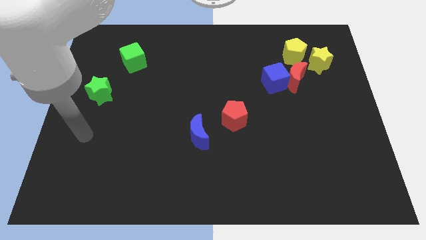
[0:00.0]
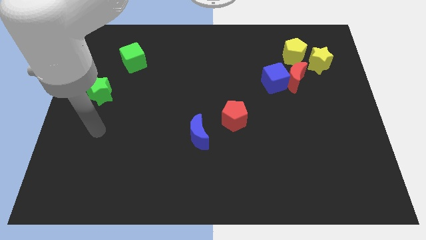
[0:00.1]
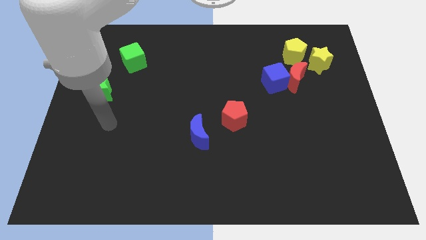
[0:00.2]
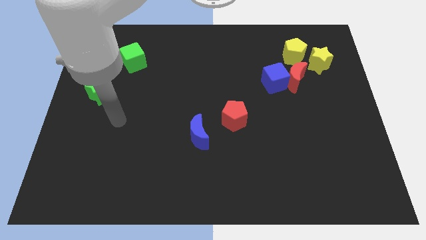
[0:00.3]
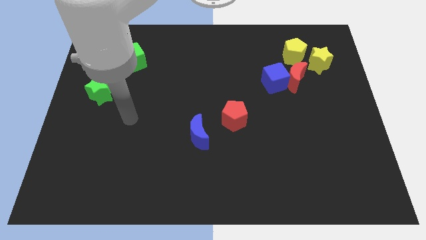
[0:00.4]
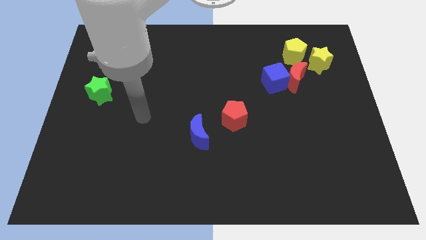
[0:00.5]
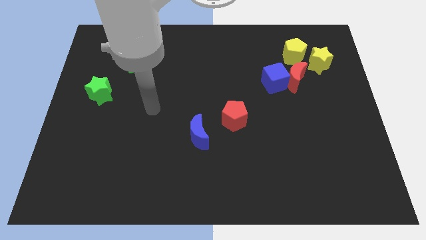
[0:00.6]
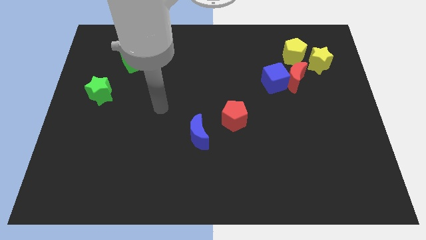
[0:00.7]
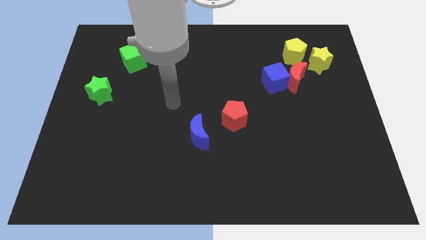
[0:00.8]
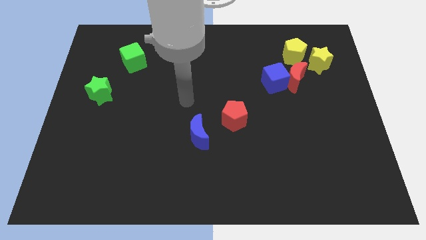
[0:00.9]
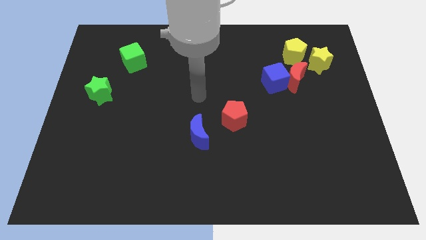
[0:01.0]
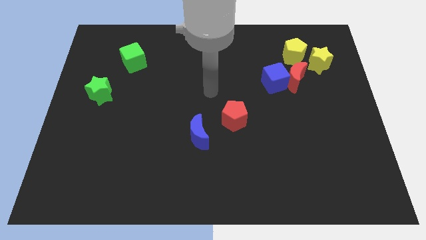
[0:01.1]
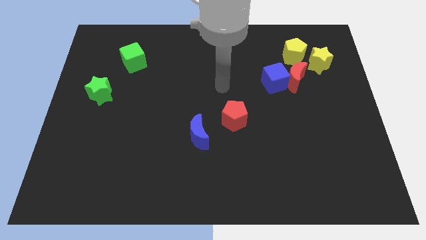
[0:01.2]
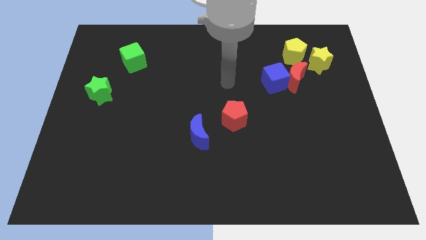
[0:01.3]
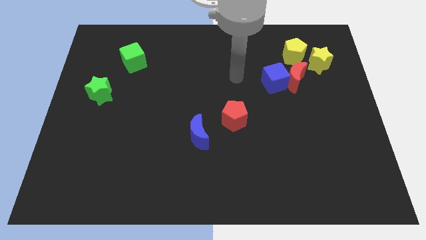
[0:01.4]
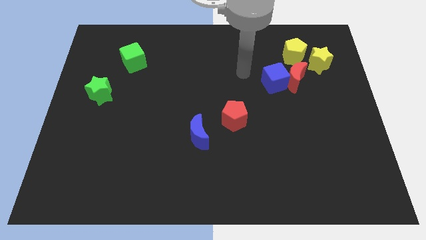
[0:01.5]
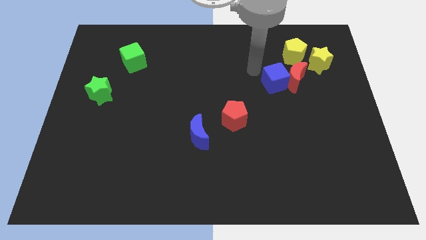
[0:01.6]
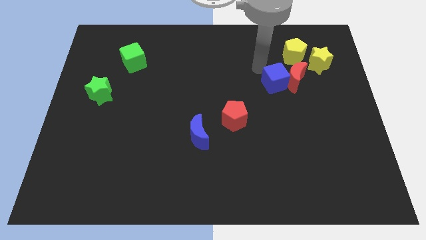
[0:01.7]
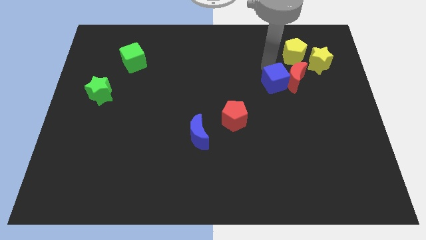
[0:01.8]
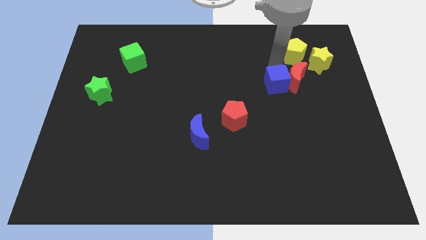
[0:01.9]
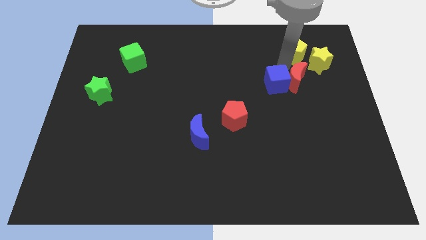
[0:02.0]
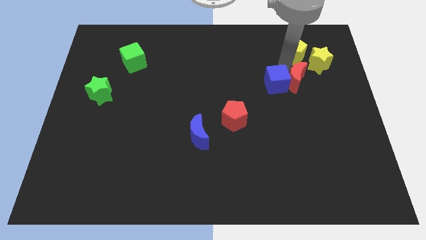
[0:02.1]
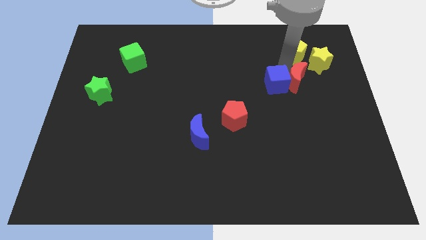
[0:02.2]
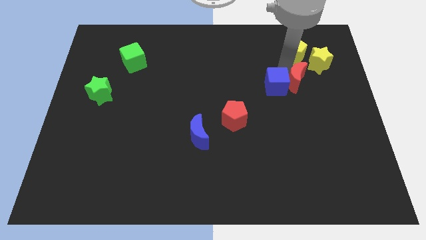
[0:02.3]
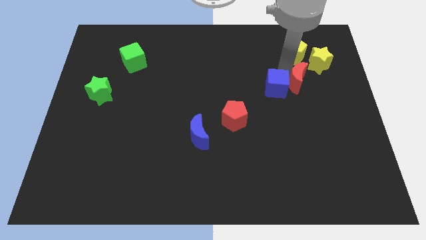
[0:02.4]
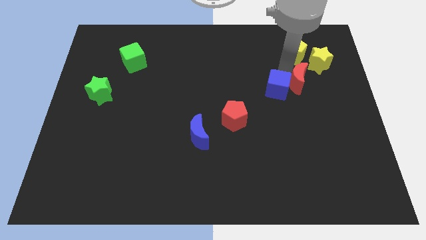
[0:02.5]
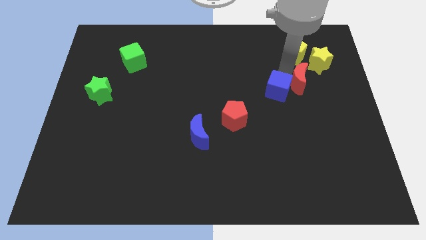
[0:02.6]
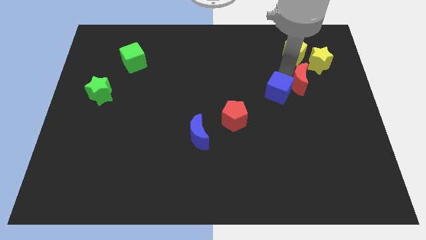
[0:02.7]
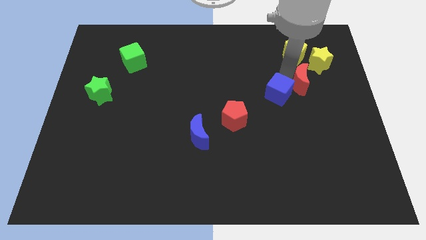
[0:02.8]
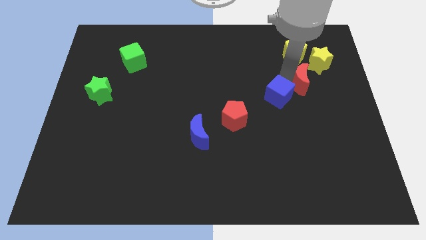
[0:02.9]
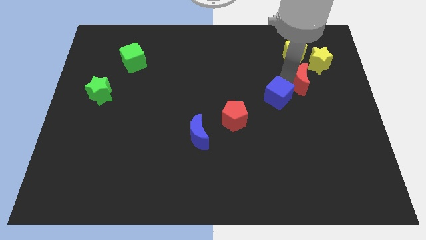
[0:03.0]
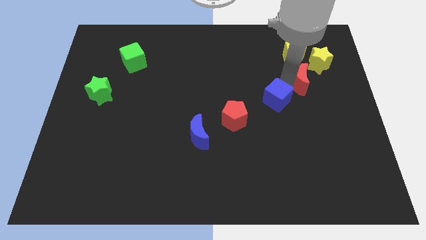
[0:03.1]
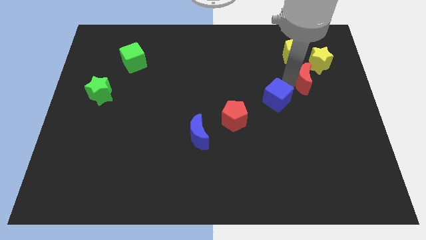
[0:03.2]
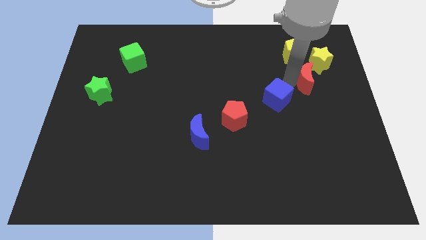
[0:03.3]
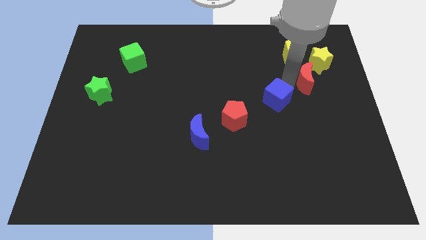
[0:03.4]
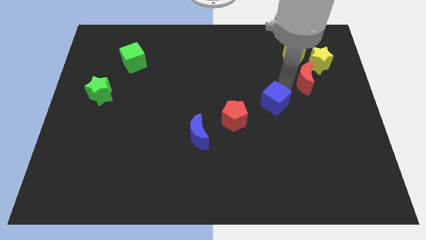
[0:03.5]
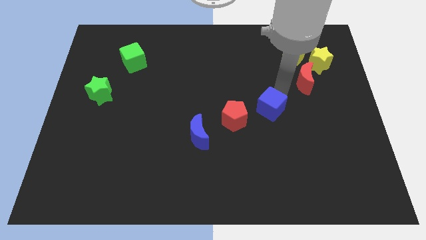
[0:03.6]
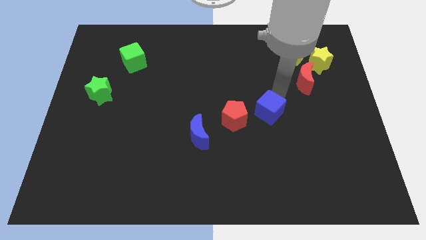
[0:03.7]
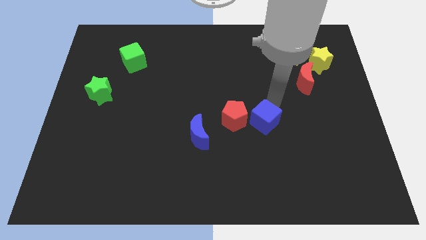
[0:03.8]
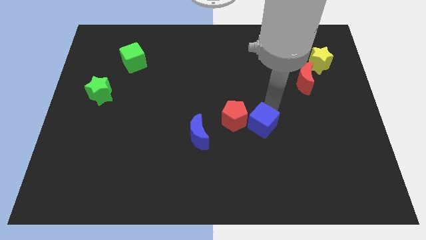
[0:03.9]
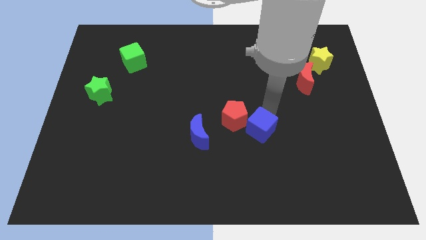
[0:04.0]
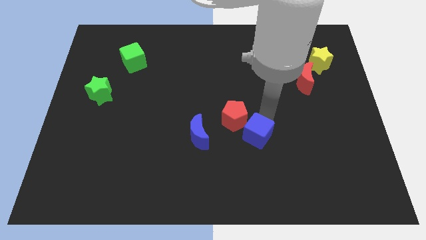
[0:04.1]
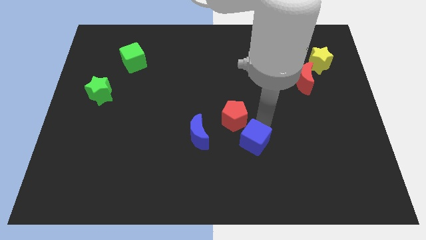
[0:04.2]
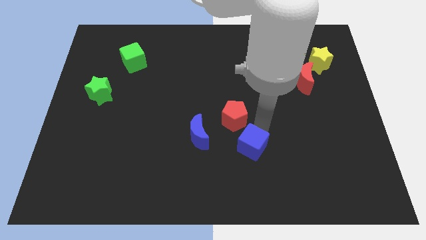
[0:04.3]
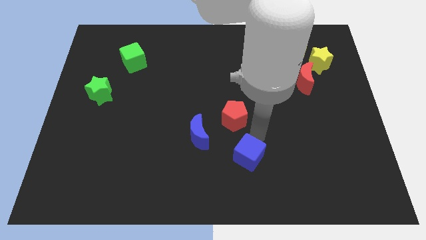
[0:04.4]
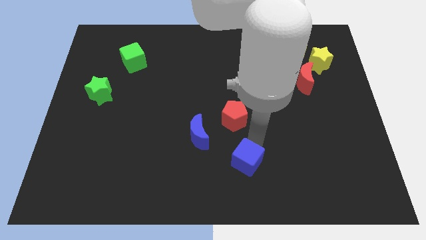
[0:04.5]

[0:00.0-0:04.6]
put the blue cube to the bottom

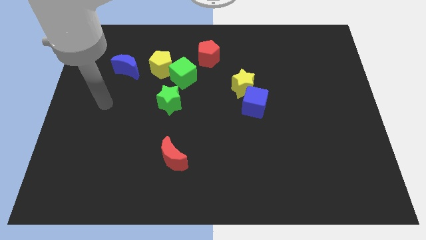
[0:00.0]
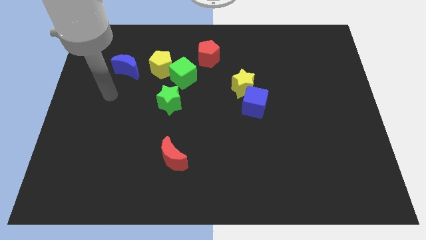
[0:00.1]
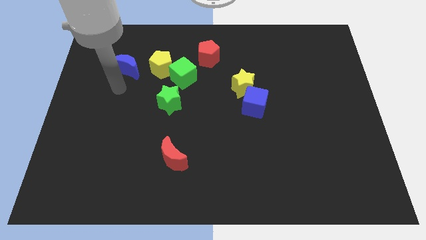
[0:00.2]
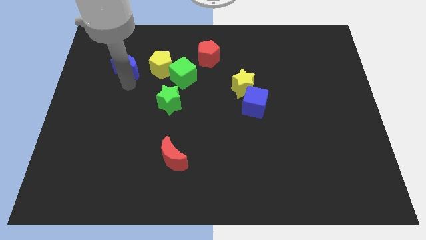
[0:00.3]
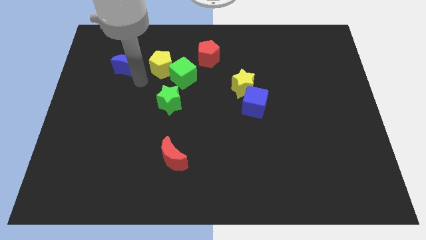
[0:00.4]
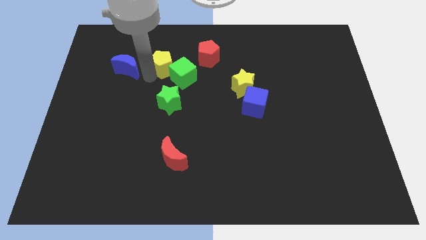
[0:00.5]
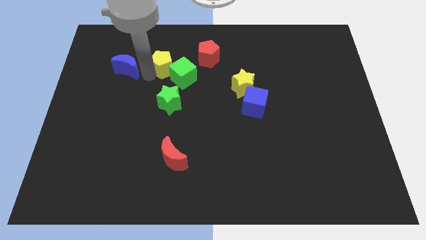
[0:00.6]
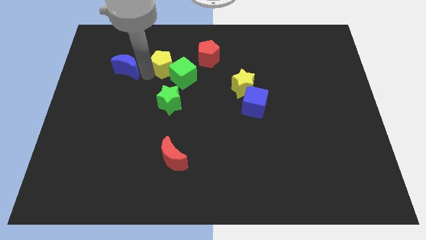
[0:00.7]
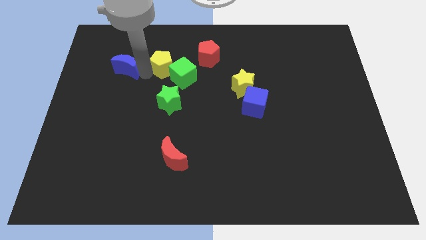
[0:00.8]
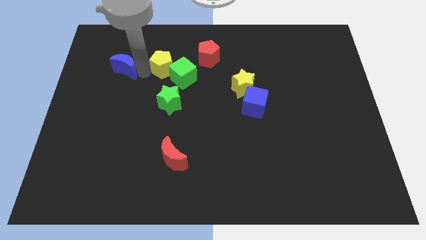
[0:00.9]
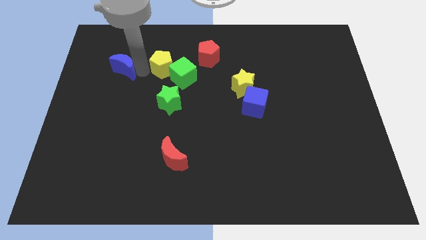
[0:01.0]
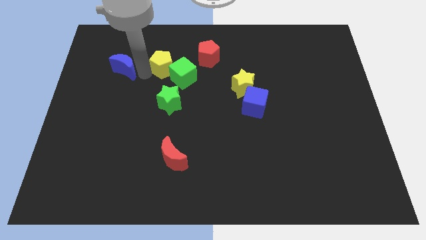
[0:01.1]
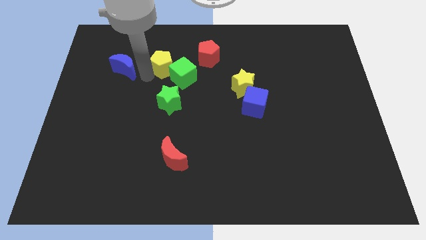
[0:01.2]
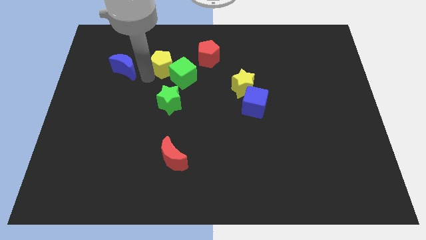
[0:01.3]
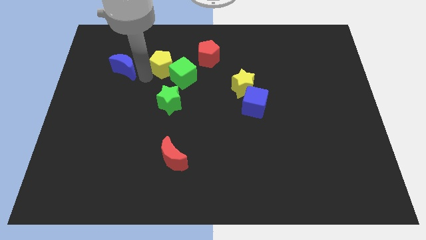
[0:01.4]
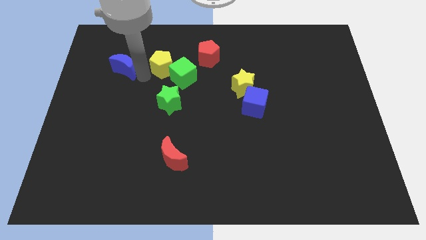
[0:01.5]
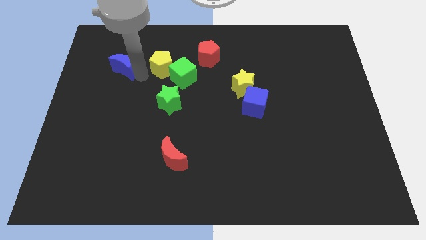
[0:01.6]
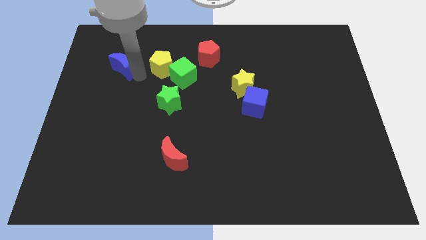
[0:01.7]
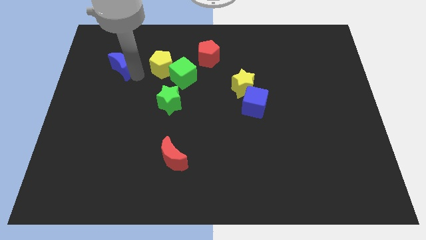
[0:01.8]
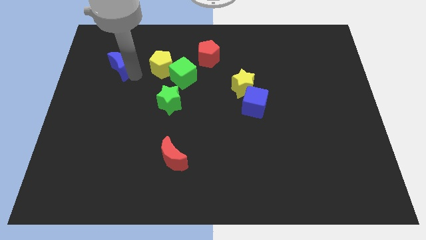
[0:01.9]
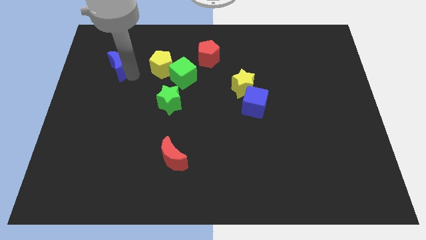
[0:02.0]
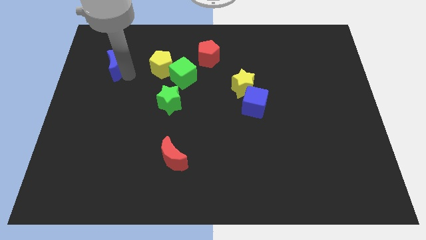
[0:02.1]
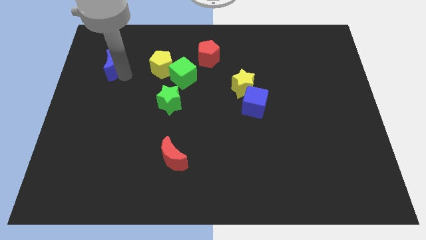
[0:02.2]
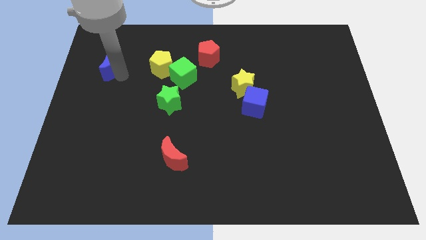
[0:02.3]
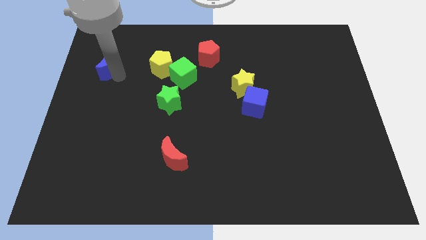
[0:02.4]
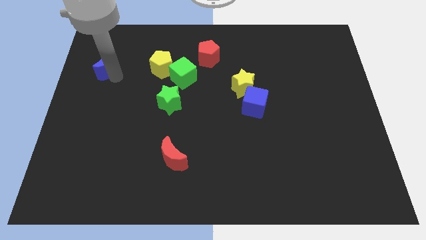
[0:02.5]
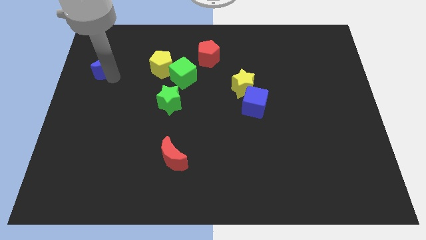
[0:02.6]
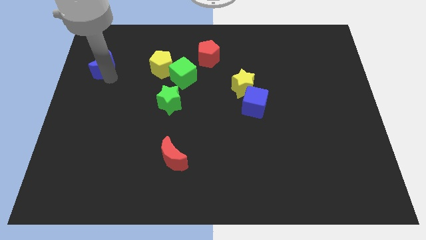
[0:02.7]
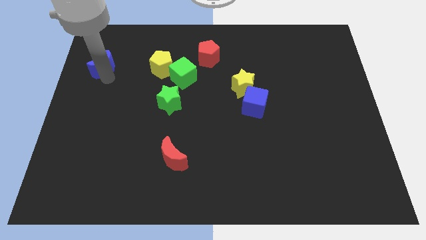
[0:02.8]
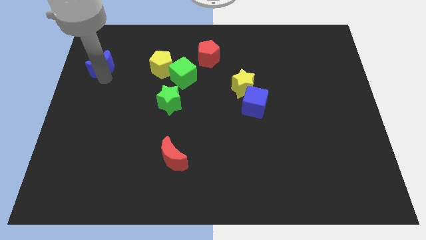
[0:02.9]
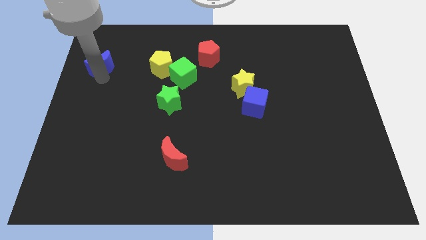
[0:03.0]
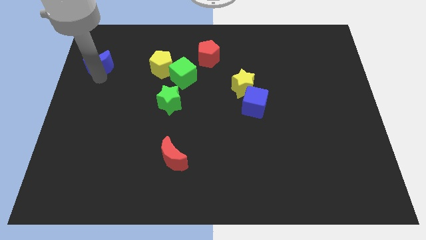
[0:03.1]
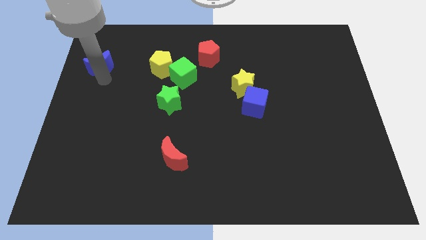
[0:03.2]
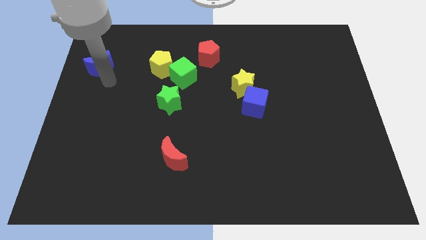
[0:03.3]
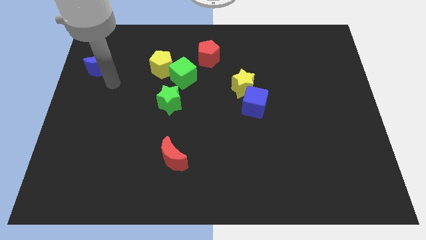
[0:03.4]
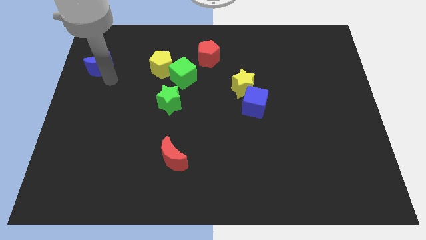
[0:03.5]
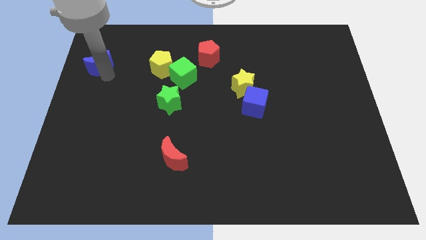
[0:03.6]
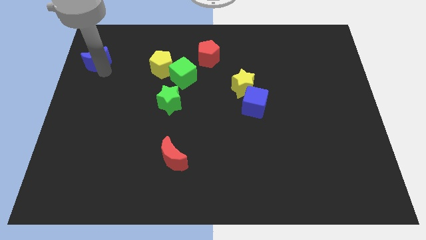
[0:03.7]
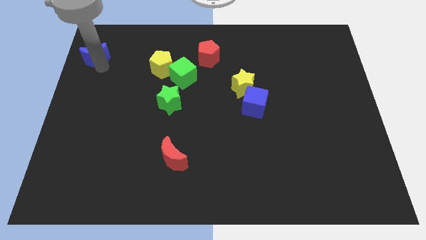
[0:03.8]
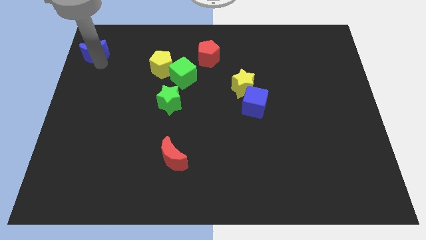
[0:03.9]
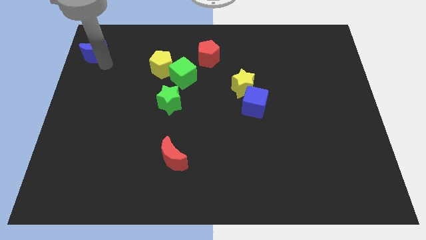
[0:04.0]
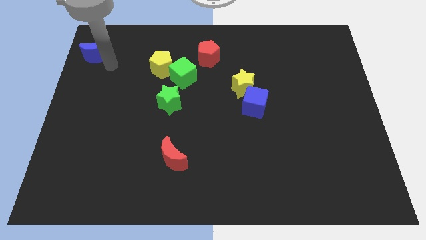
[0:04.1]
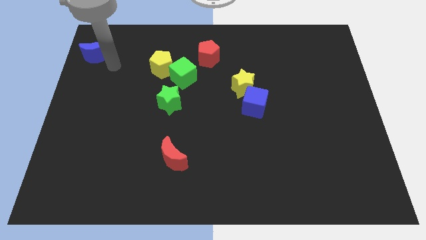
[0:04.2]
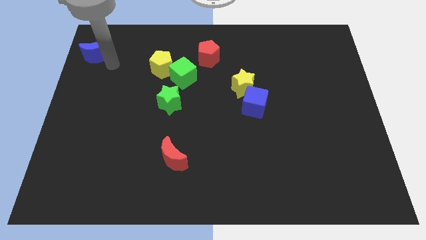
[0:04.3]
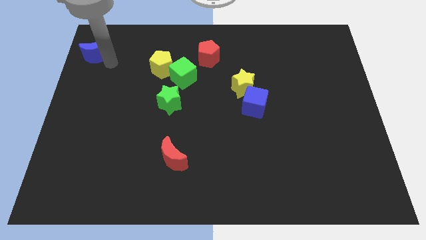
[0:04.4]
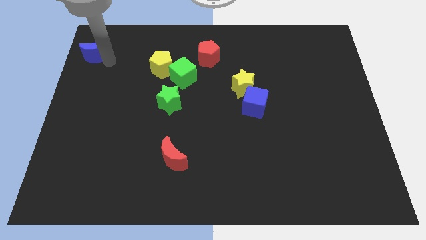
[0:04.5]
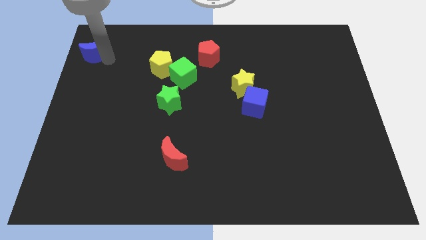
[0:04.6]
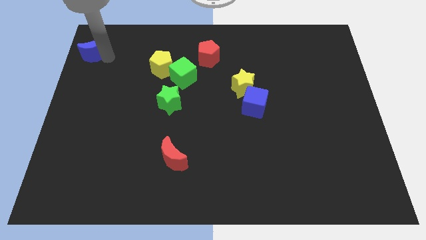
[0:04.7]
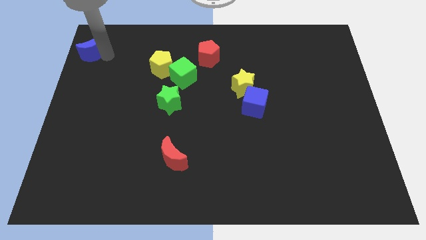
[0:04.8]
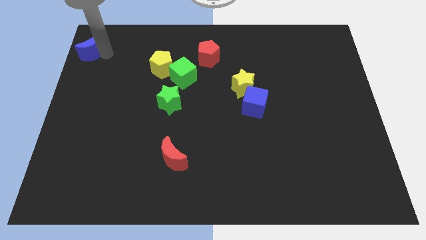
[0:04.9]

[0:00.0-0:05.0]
move the blue moon to the top left of the board
